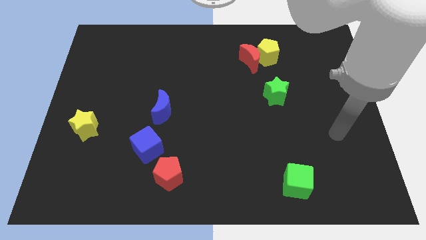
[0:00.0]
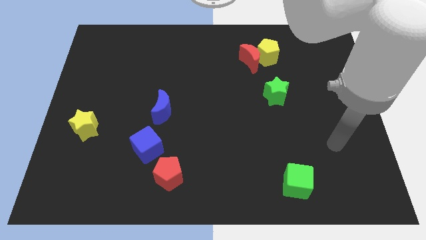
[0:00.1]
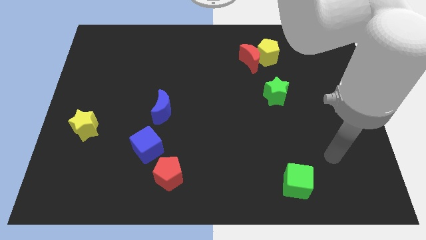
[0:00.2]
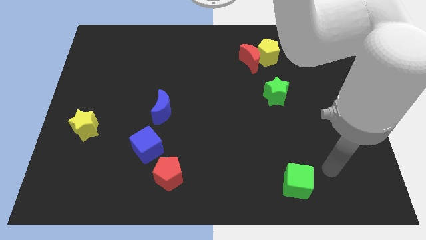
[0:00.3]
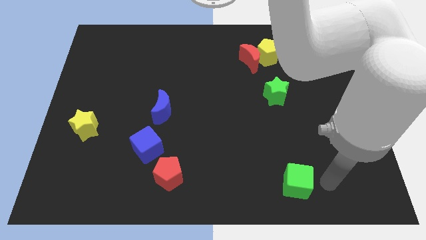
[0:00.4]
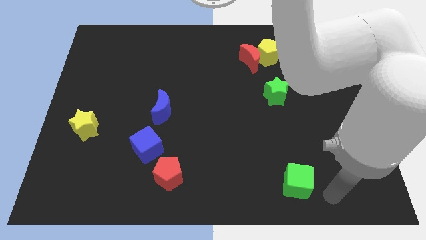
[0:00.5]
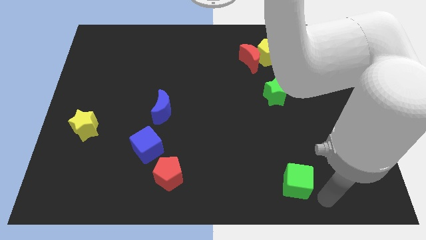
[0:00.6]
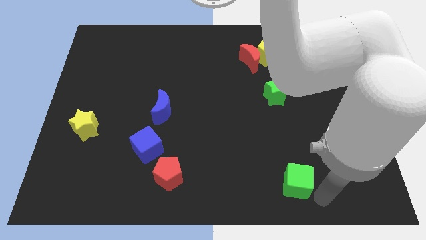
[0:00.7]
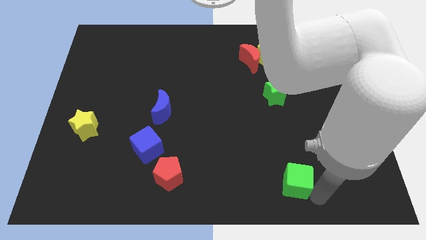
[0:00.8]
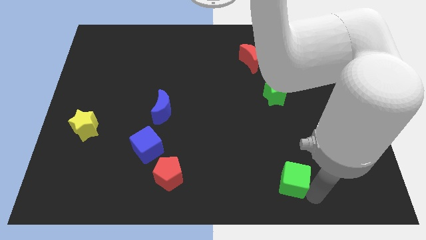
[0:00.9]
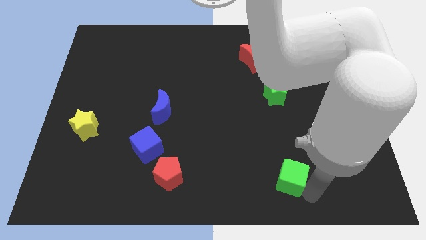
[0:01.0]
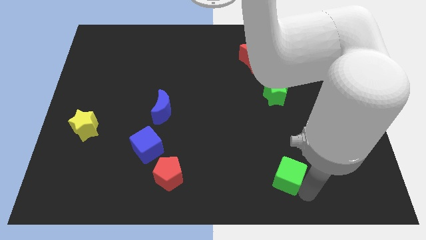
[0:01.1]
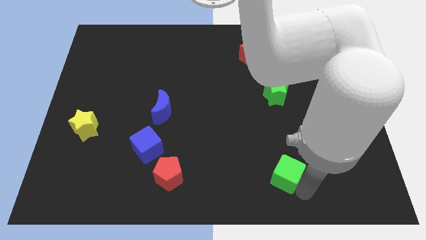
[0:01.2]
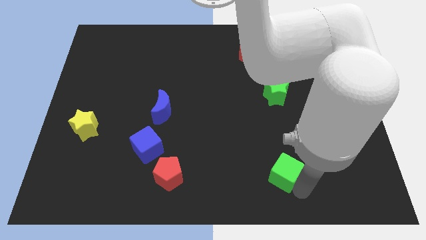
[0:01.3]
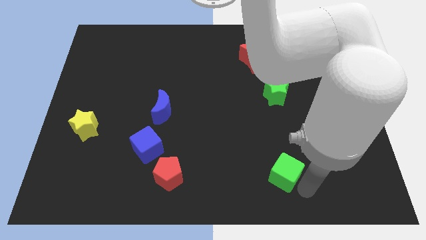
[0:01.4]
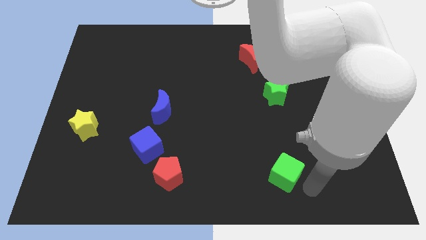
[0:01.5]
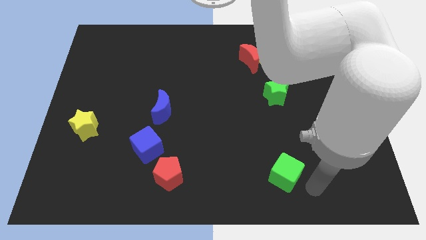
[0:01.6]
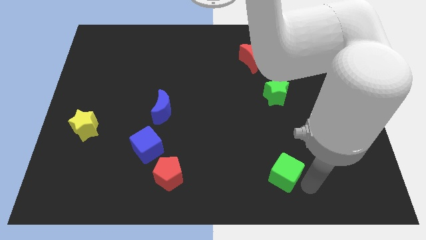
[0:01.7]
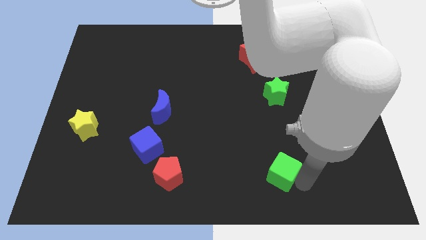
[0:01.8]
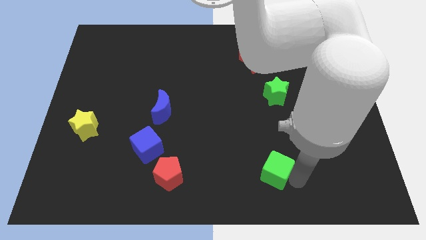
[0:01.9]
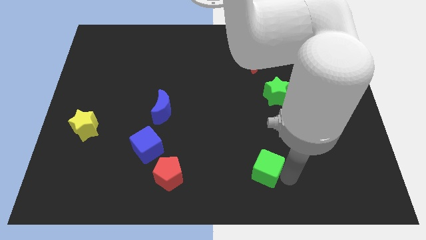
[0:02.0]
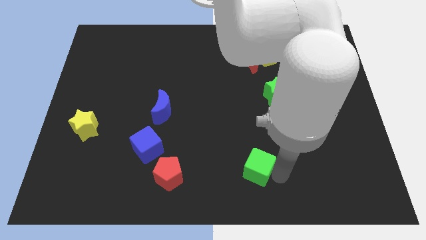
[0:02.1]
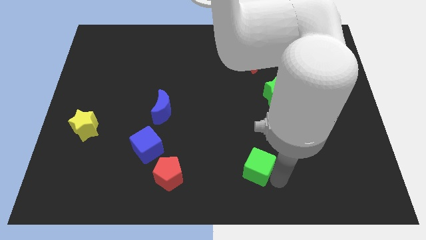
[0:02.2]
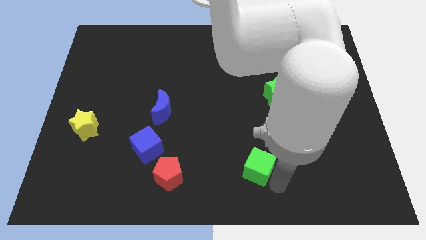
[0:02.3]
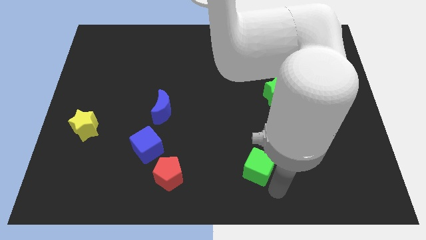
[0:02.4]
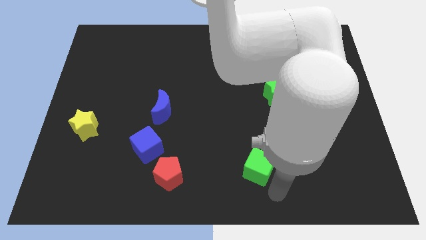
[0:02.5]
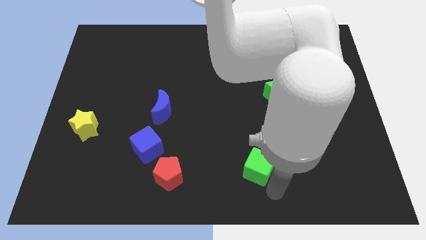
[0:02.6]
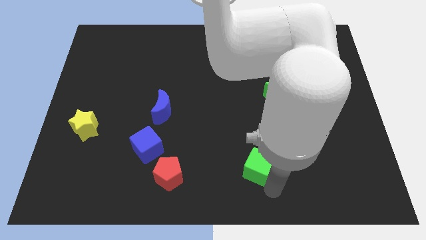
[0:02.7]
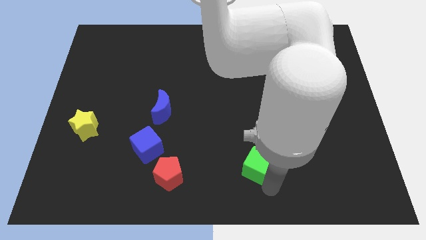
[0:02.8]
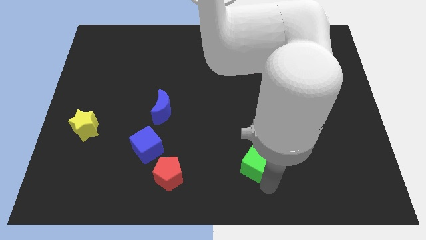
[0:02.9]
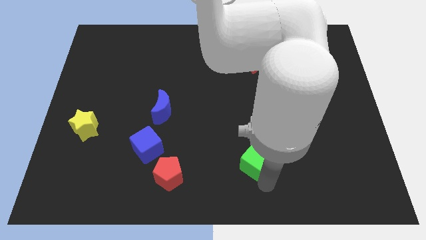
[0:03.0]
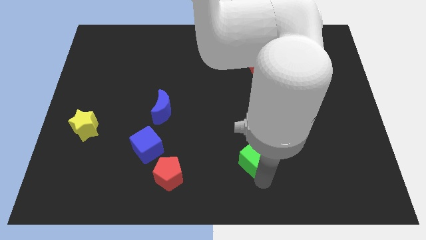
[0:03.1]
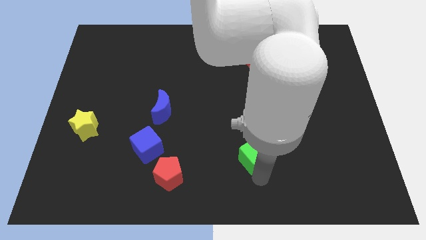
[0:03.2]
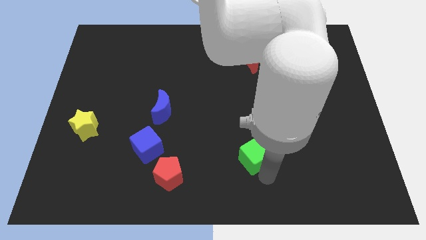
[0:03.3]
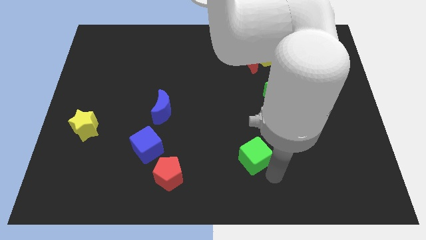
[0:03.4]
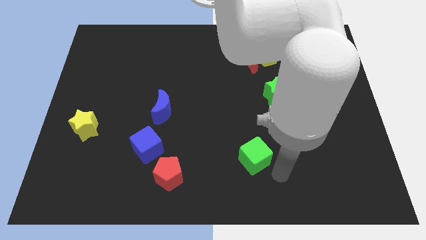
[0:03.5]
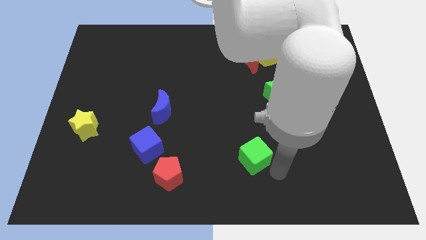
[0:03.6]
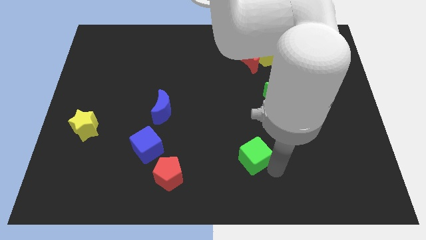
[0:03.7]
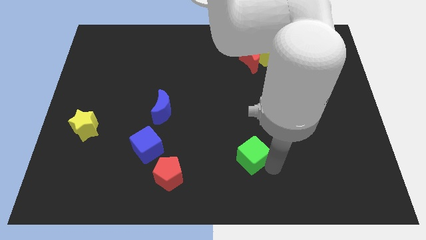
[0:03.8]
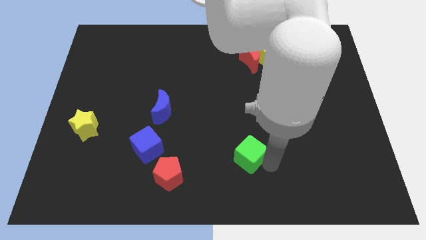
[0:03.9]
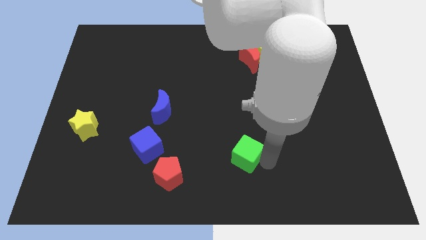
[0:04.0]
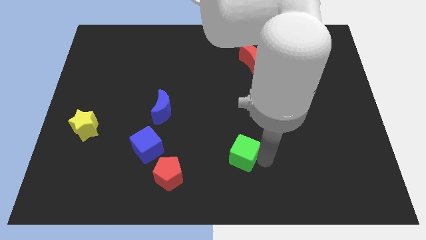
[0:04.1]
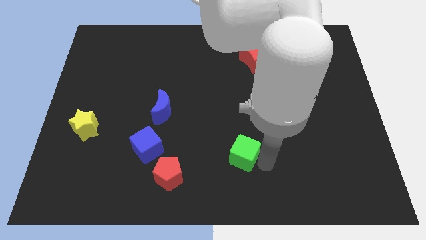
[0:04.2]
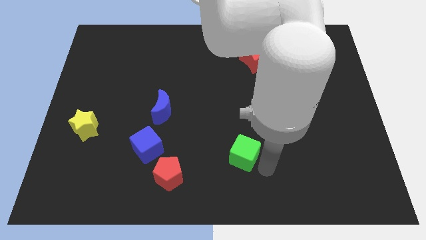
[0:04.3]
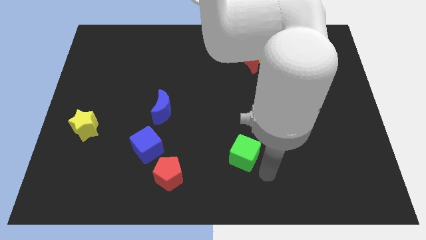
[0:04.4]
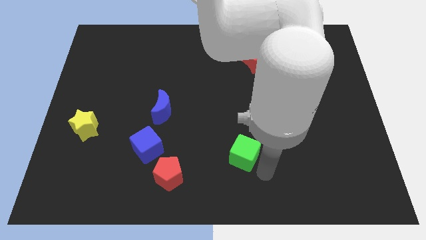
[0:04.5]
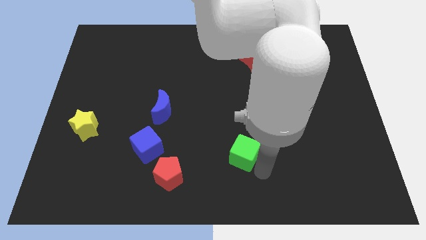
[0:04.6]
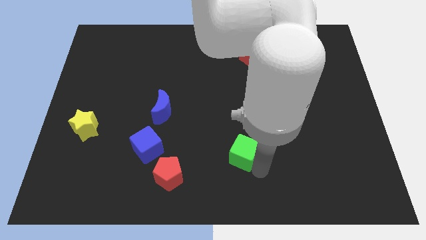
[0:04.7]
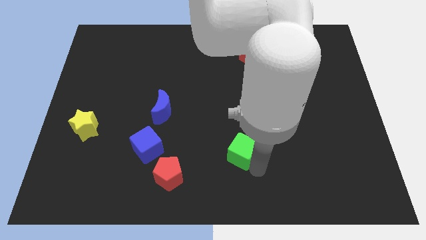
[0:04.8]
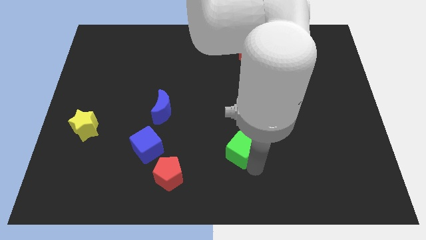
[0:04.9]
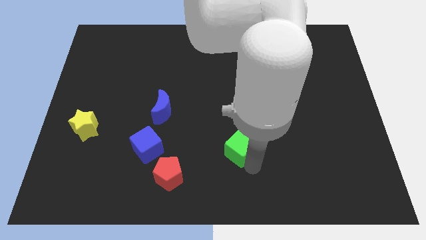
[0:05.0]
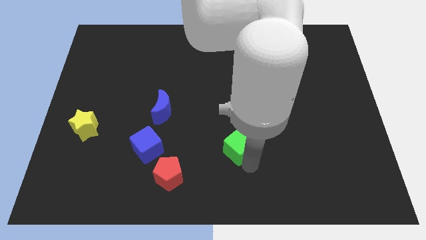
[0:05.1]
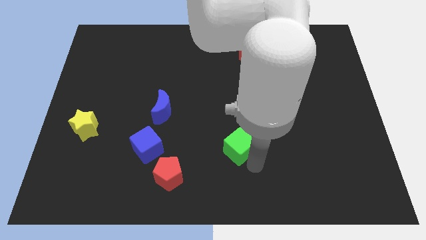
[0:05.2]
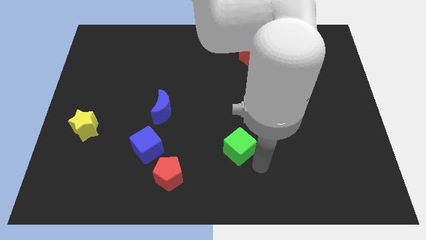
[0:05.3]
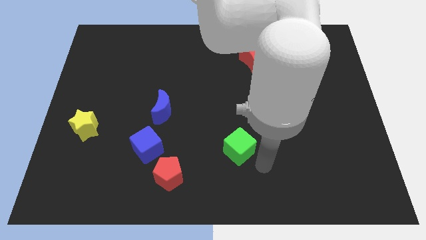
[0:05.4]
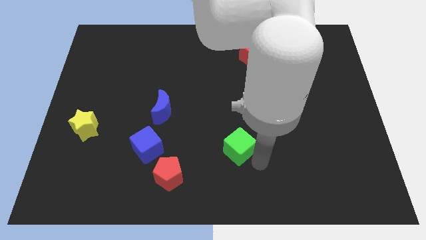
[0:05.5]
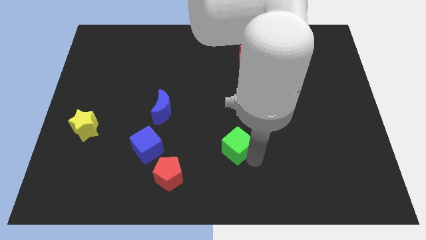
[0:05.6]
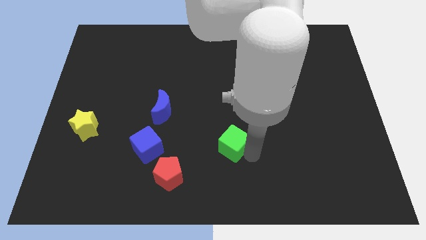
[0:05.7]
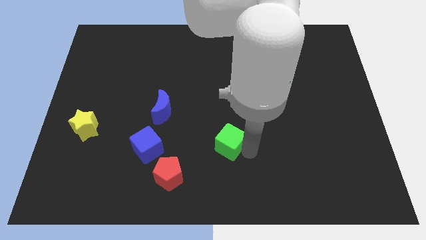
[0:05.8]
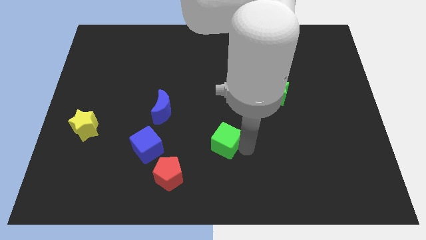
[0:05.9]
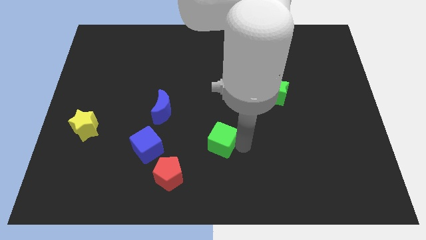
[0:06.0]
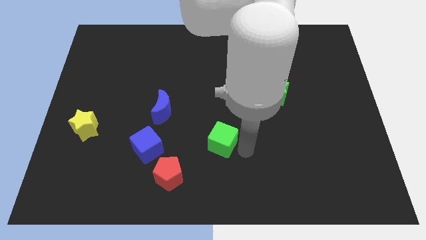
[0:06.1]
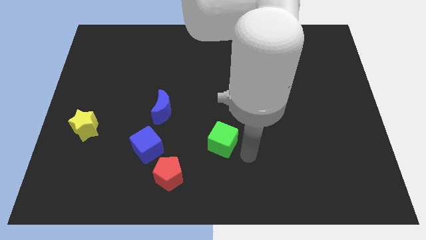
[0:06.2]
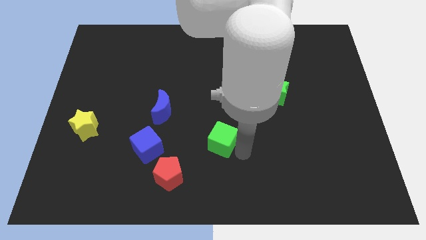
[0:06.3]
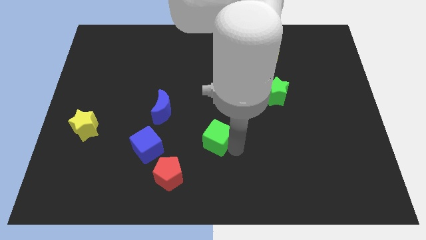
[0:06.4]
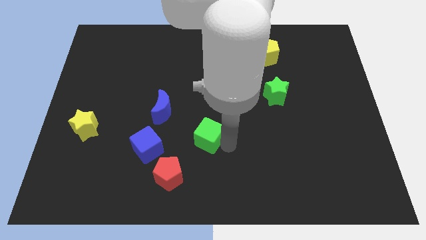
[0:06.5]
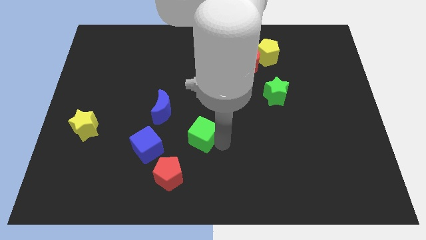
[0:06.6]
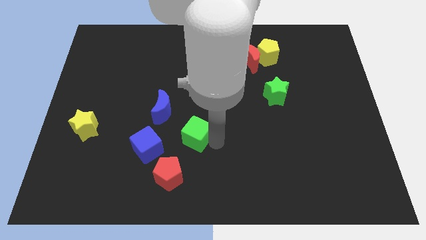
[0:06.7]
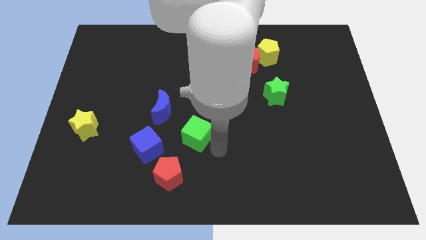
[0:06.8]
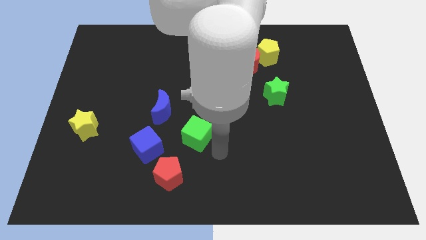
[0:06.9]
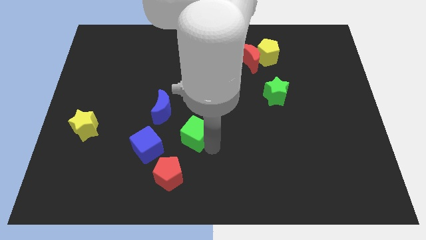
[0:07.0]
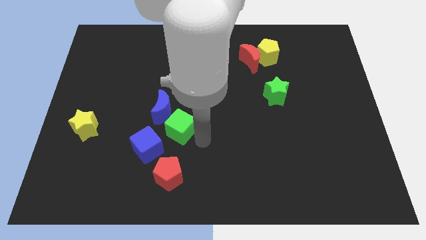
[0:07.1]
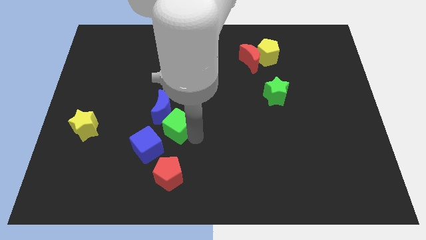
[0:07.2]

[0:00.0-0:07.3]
push the green cube to the blue moon

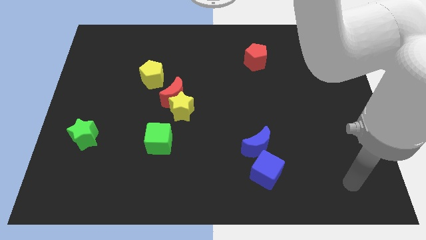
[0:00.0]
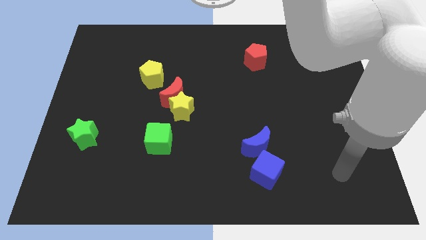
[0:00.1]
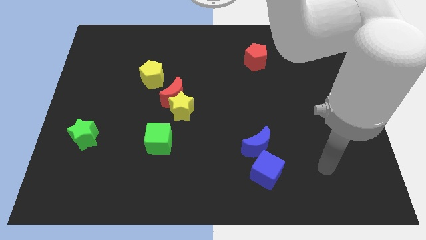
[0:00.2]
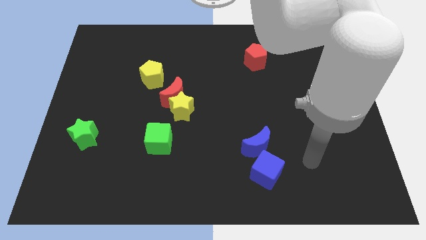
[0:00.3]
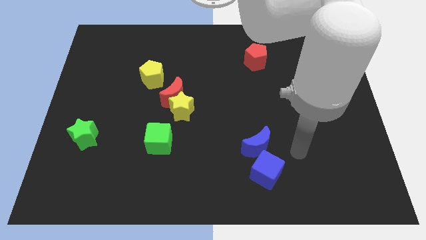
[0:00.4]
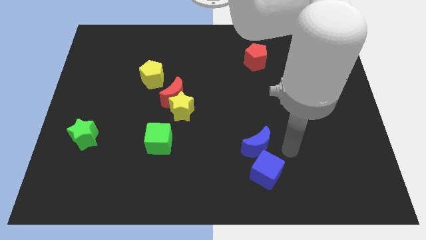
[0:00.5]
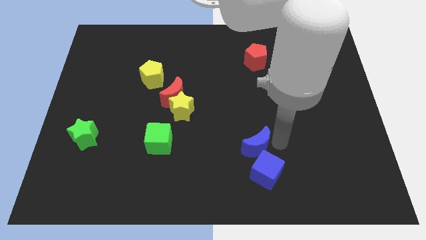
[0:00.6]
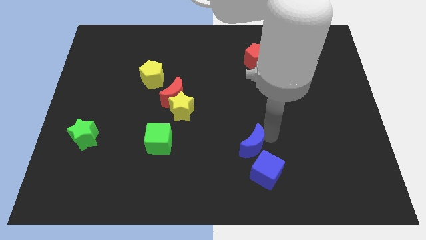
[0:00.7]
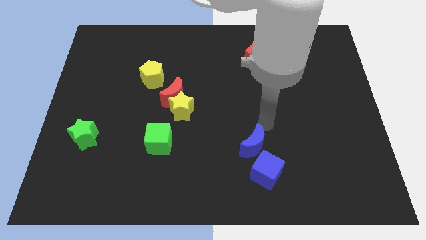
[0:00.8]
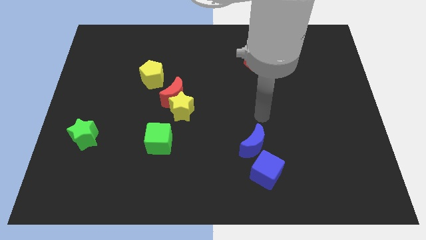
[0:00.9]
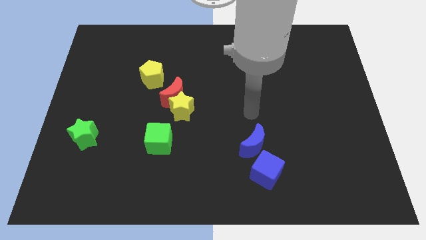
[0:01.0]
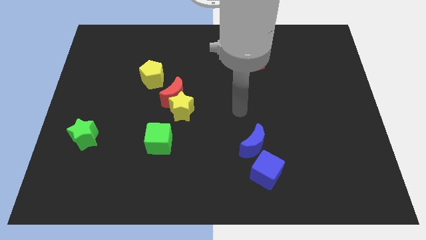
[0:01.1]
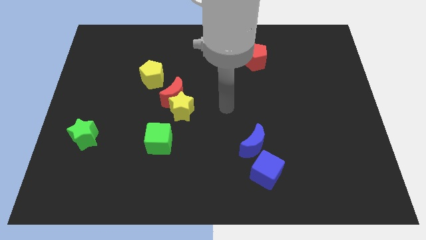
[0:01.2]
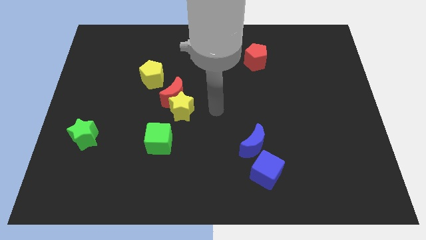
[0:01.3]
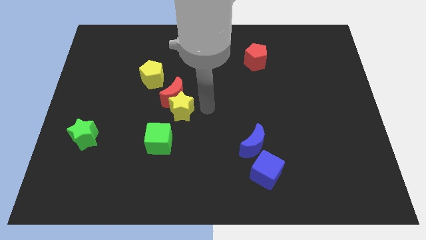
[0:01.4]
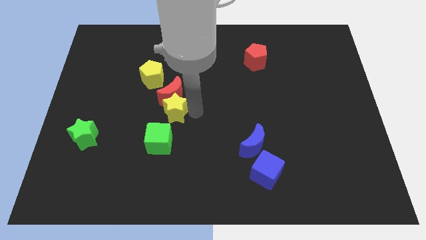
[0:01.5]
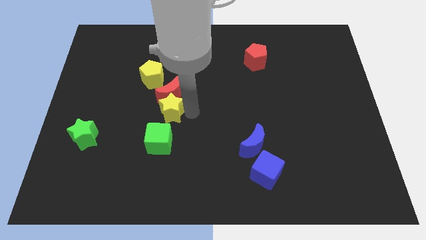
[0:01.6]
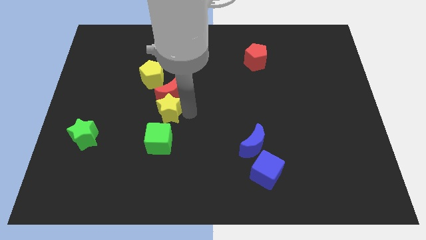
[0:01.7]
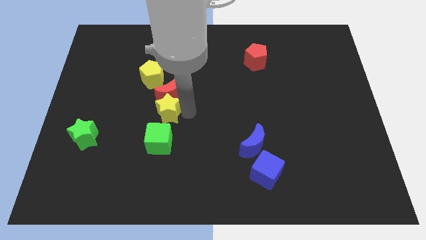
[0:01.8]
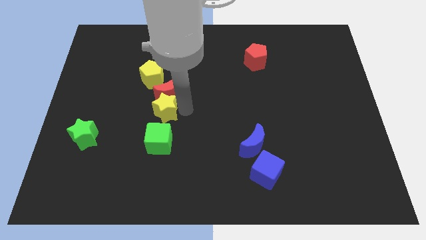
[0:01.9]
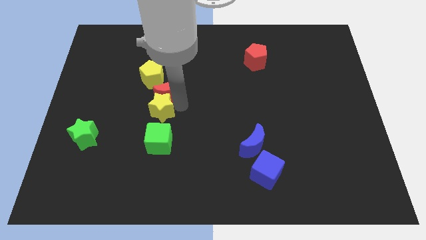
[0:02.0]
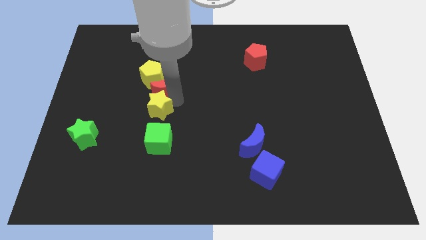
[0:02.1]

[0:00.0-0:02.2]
push the red moon towards the yellow pentagon
